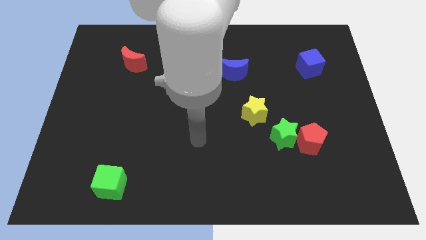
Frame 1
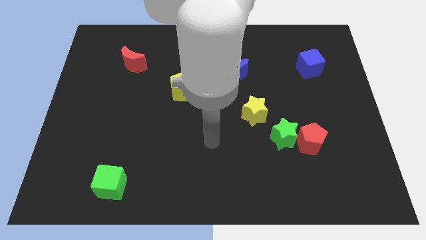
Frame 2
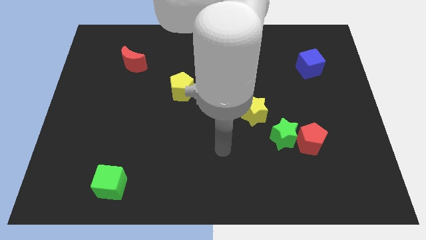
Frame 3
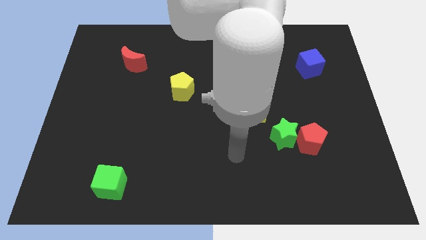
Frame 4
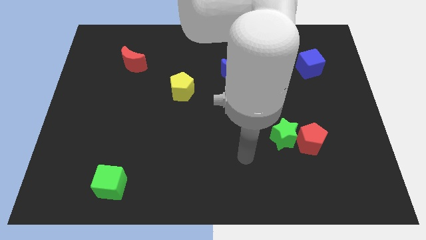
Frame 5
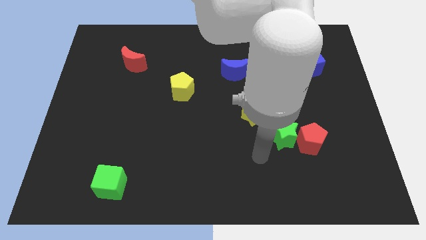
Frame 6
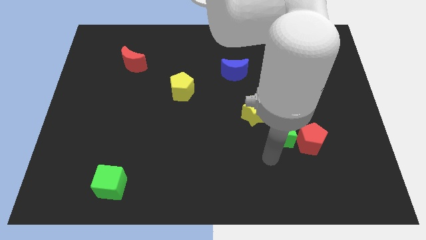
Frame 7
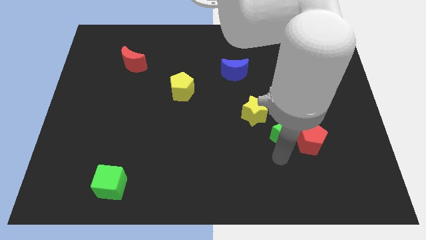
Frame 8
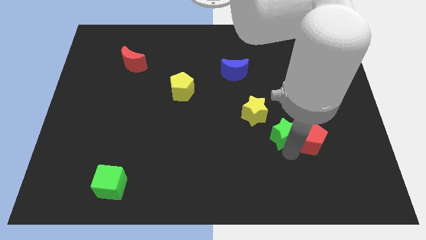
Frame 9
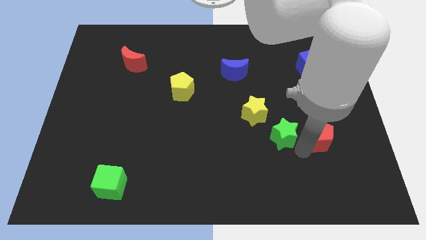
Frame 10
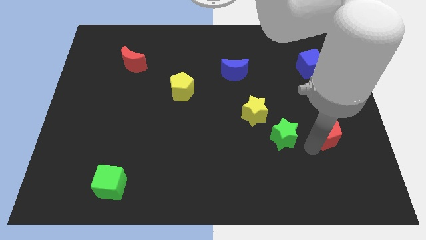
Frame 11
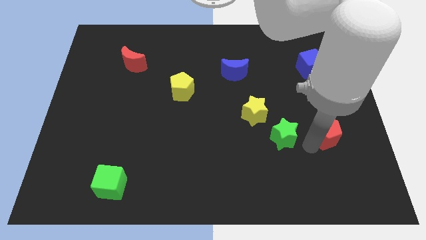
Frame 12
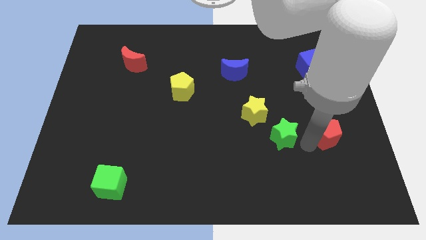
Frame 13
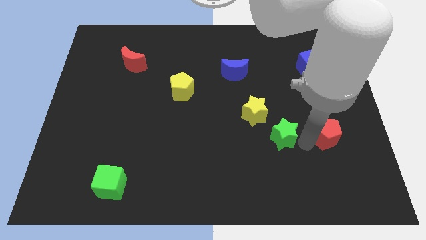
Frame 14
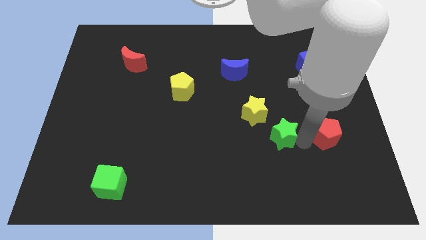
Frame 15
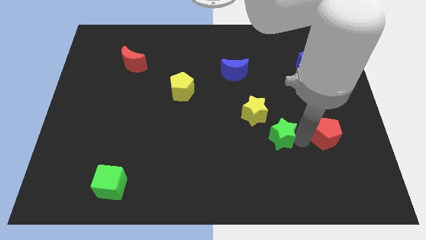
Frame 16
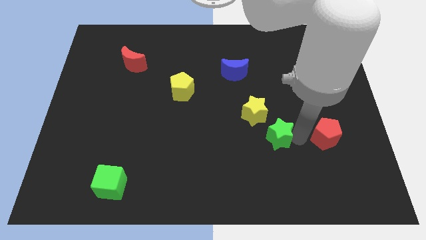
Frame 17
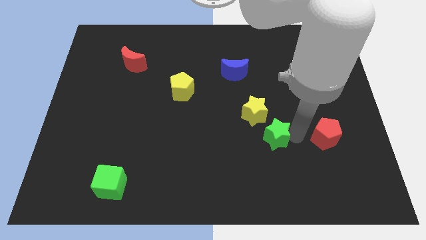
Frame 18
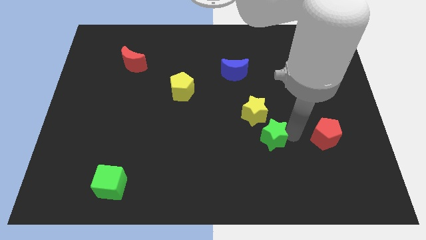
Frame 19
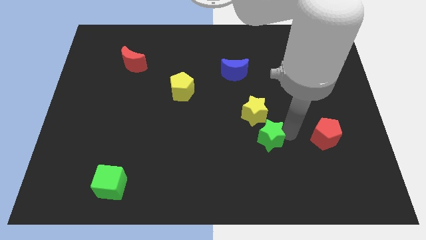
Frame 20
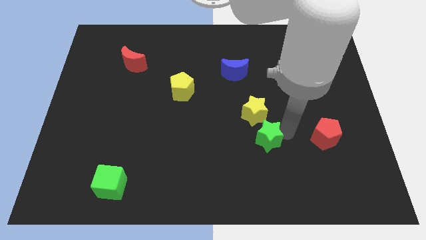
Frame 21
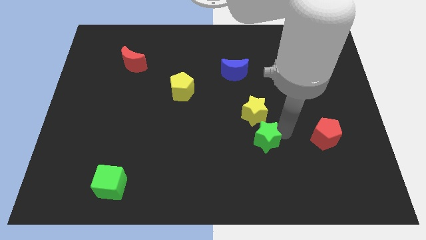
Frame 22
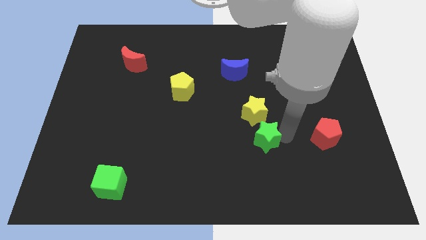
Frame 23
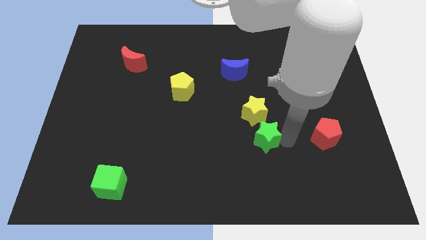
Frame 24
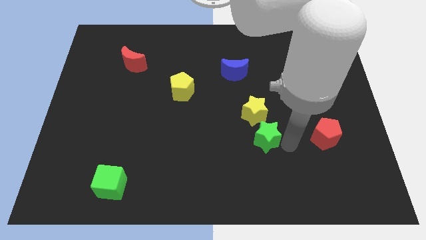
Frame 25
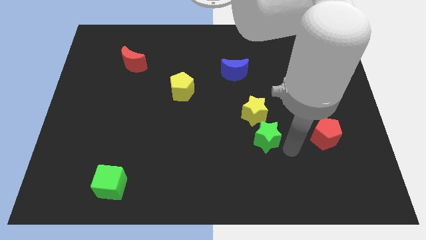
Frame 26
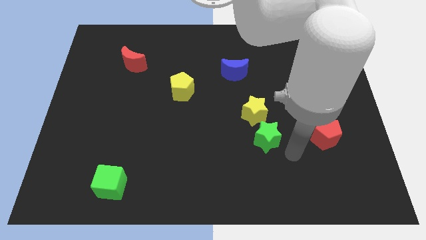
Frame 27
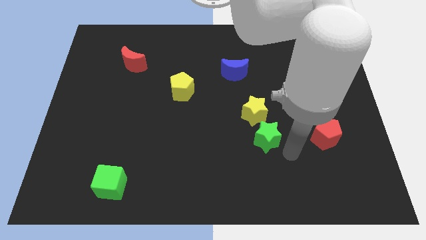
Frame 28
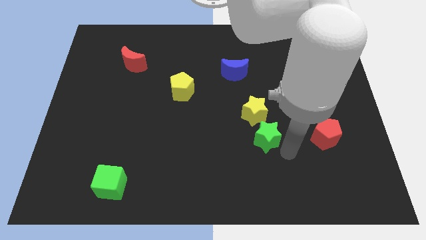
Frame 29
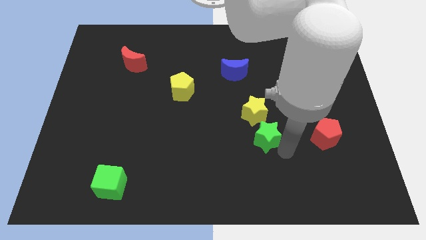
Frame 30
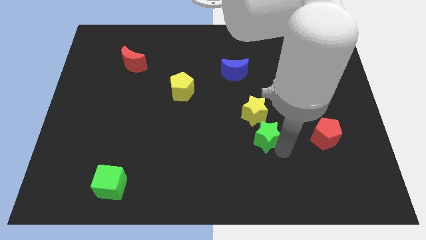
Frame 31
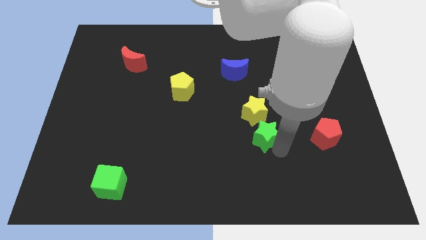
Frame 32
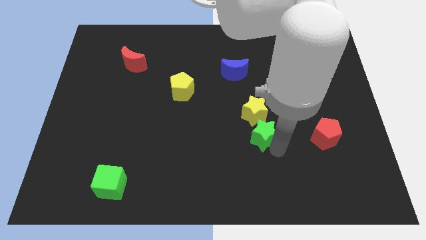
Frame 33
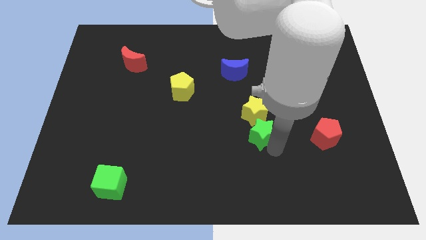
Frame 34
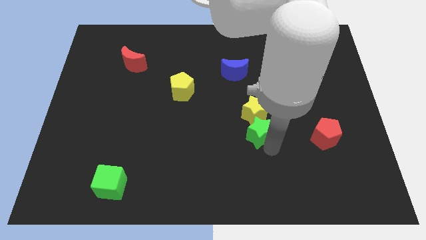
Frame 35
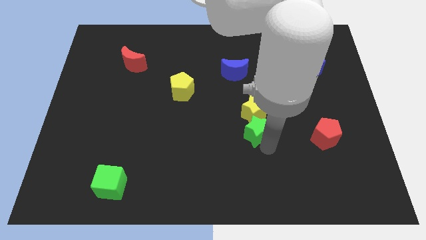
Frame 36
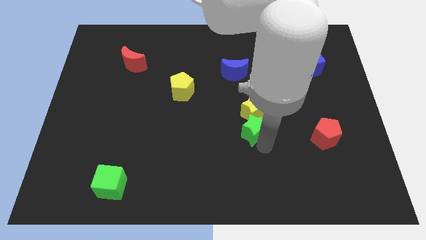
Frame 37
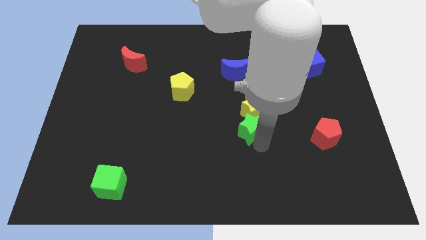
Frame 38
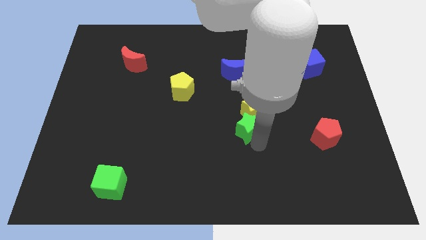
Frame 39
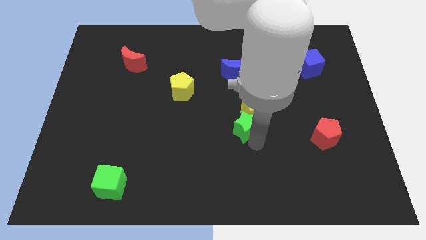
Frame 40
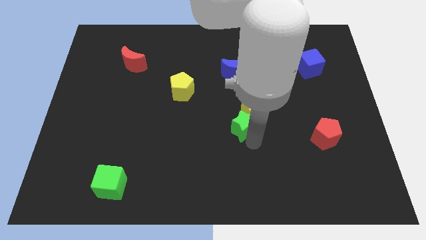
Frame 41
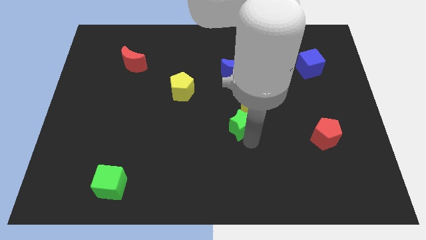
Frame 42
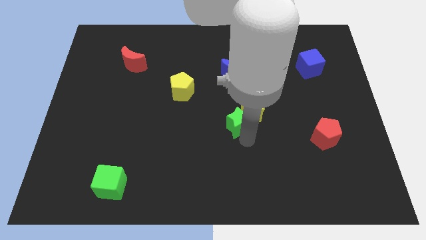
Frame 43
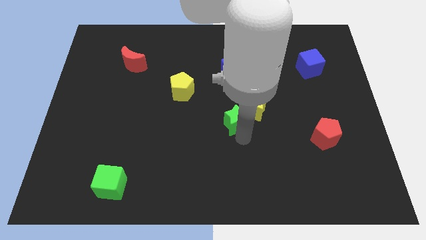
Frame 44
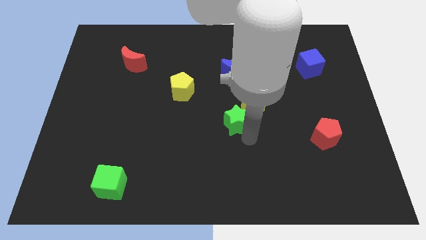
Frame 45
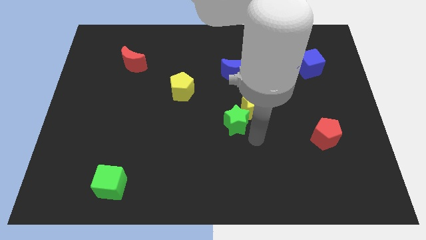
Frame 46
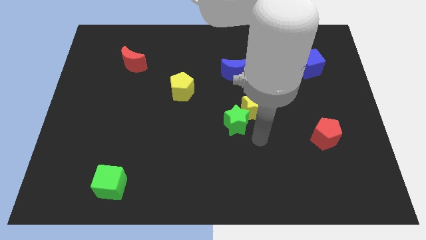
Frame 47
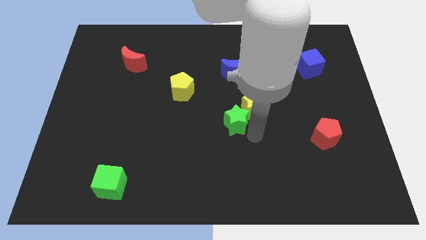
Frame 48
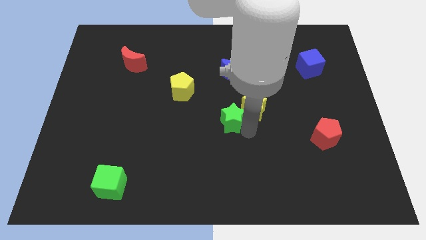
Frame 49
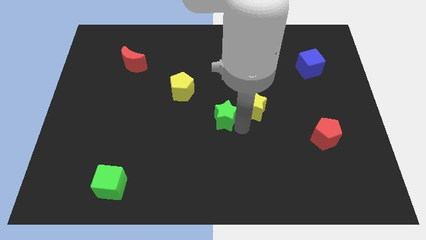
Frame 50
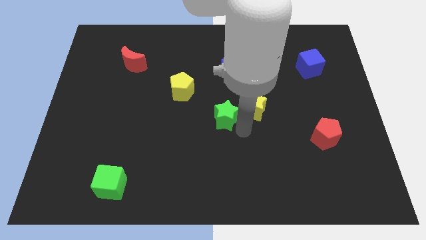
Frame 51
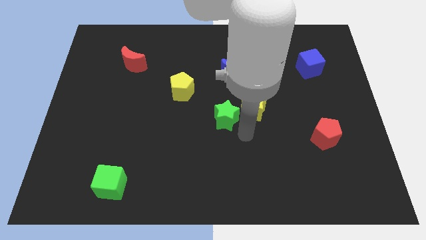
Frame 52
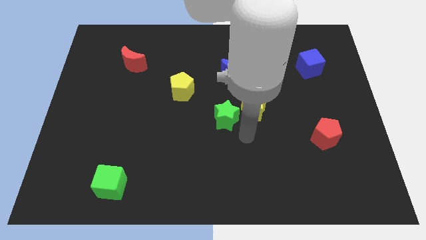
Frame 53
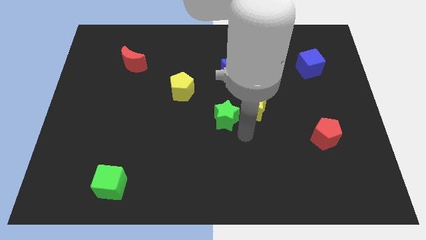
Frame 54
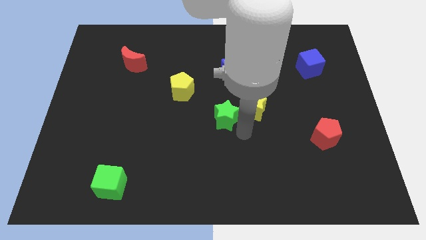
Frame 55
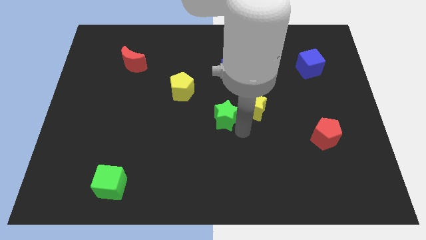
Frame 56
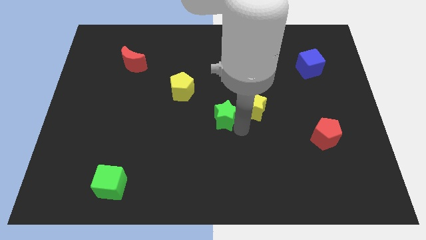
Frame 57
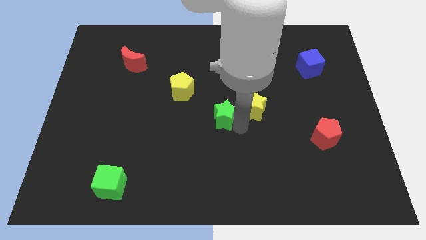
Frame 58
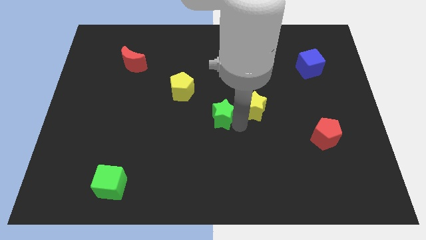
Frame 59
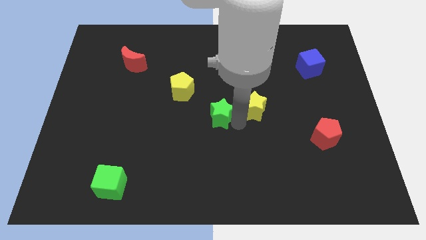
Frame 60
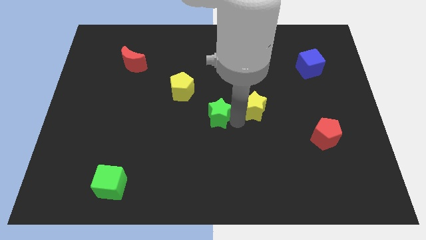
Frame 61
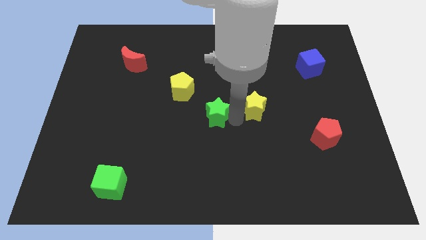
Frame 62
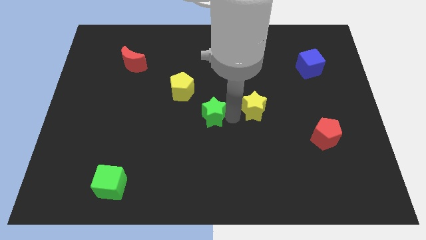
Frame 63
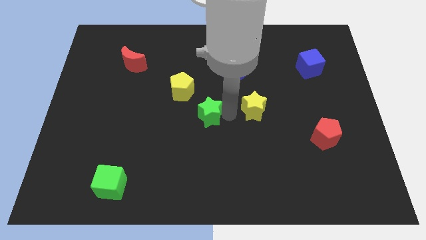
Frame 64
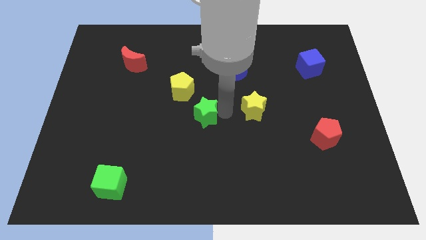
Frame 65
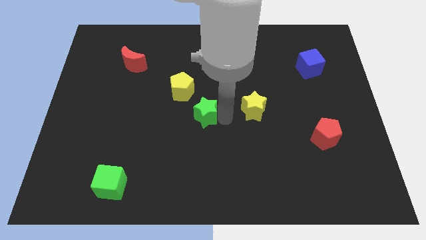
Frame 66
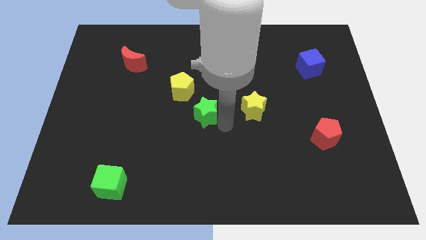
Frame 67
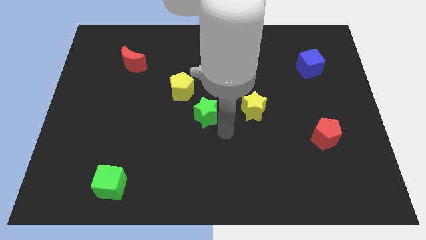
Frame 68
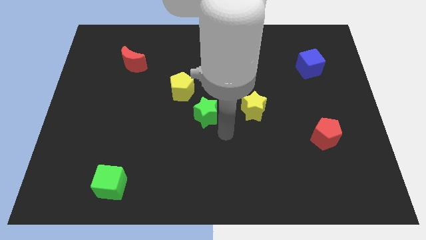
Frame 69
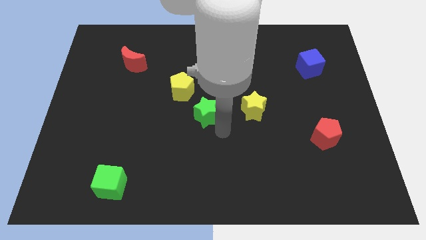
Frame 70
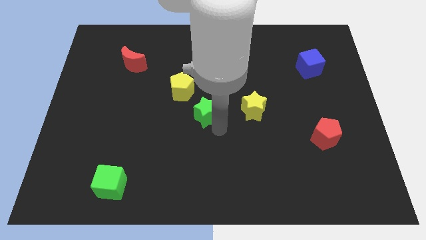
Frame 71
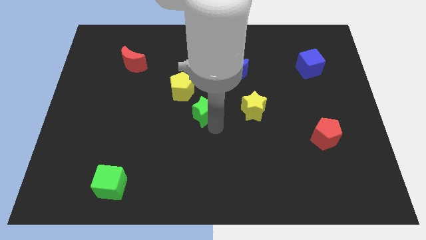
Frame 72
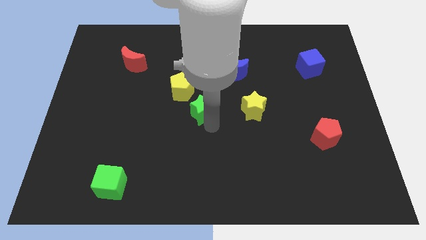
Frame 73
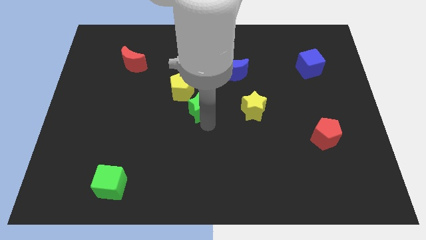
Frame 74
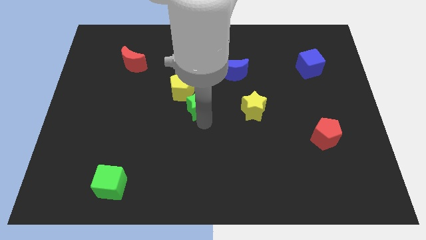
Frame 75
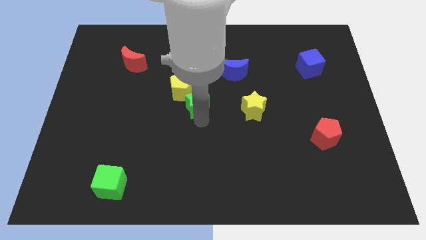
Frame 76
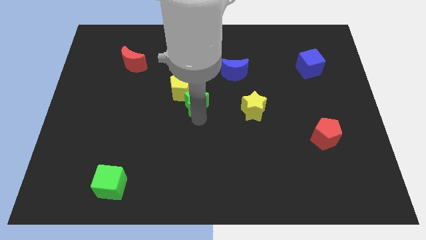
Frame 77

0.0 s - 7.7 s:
put the green star next to the yellow pentagon
